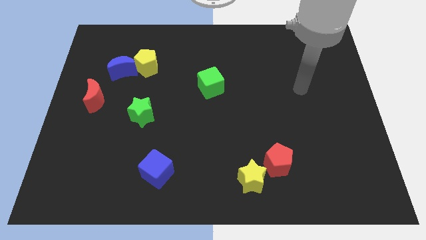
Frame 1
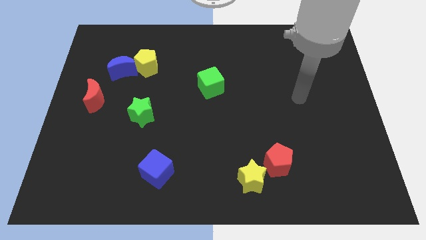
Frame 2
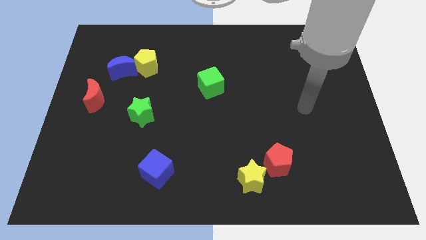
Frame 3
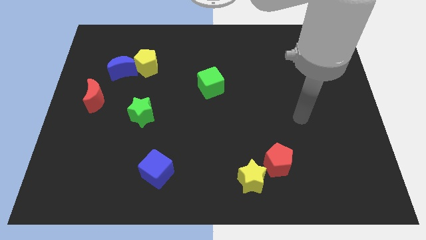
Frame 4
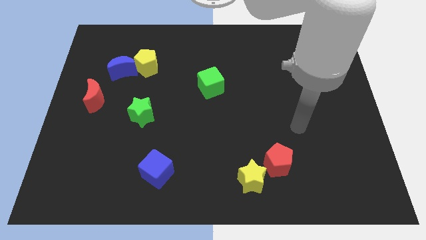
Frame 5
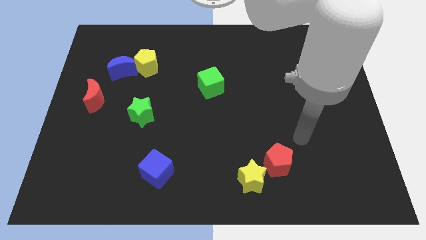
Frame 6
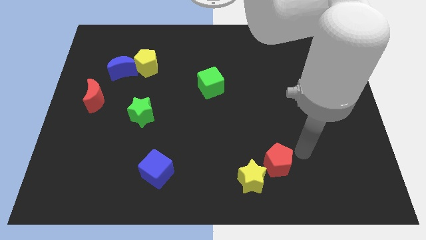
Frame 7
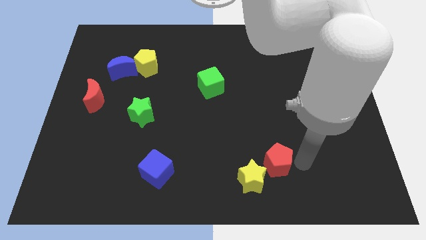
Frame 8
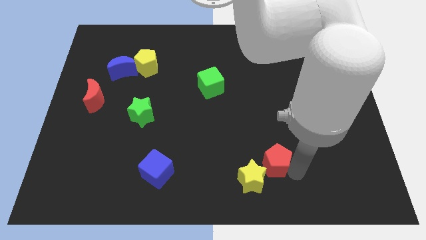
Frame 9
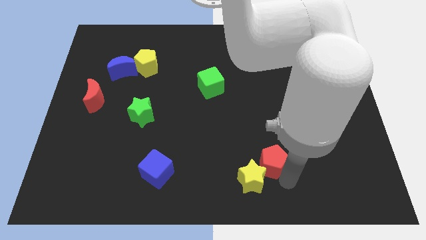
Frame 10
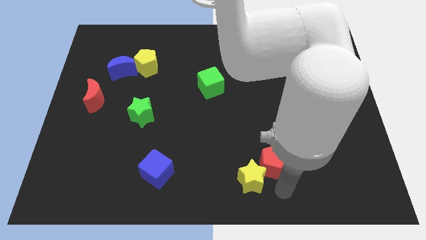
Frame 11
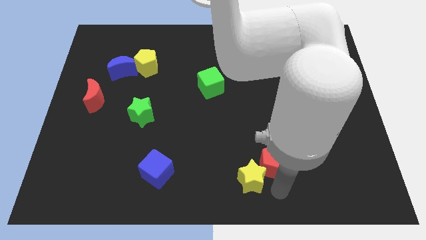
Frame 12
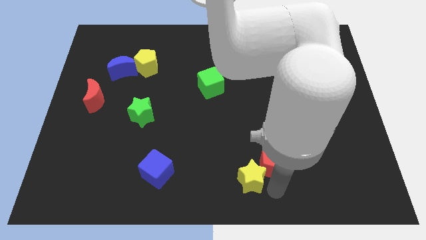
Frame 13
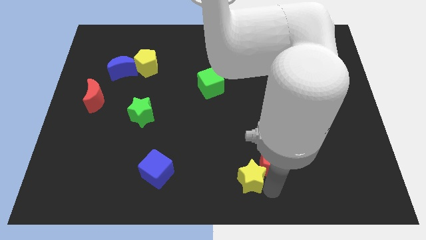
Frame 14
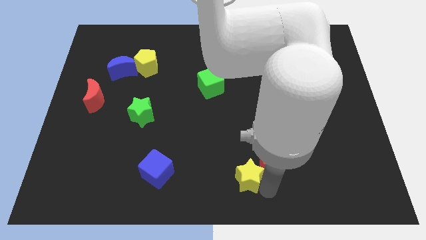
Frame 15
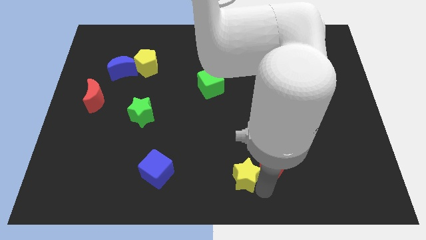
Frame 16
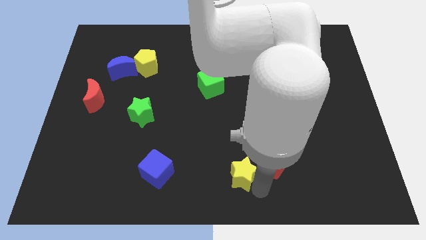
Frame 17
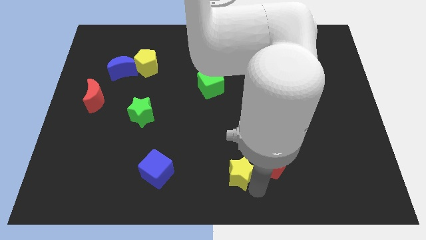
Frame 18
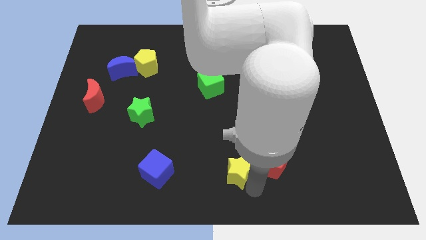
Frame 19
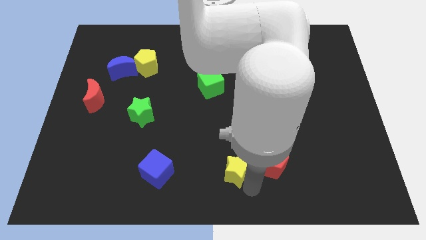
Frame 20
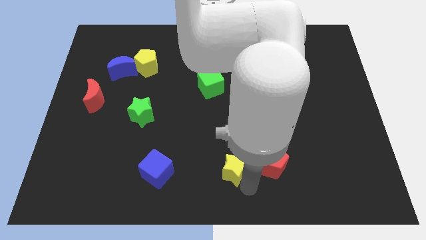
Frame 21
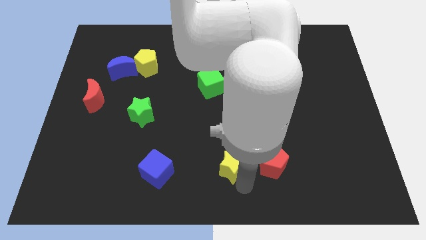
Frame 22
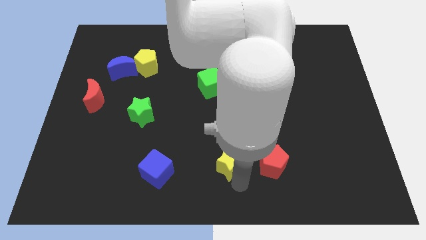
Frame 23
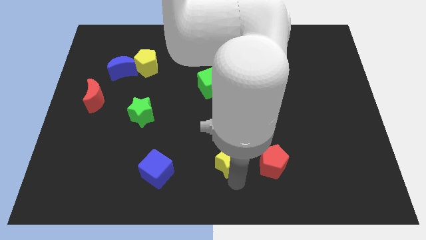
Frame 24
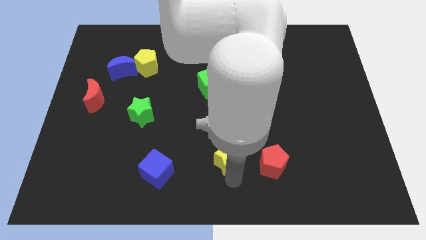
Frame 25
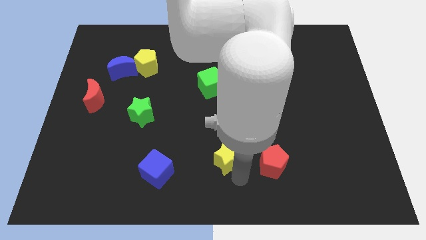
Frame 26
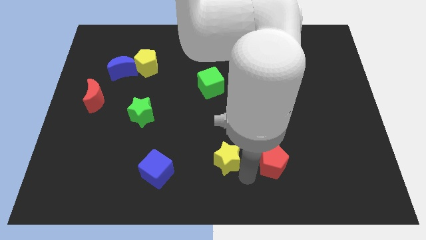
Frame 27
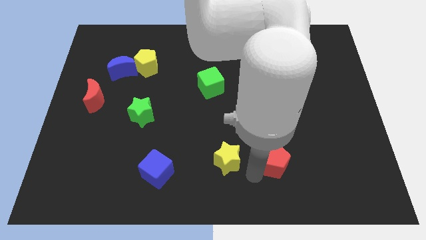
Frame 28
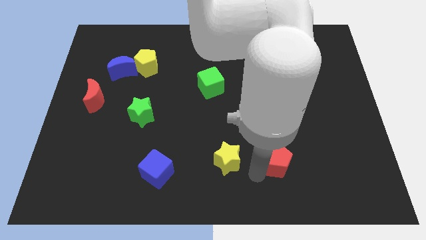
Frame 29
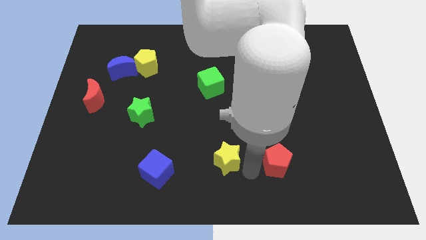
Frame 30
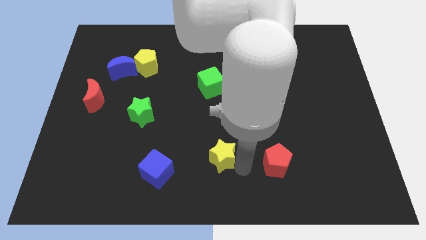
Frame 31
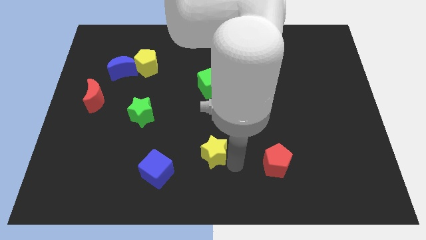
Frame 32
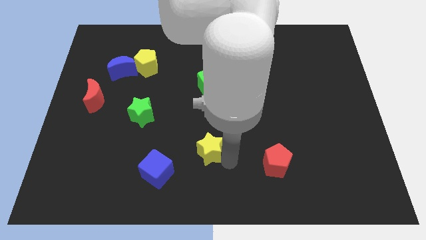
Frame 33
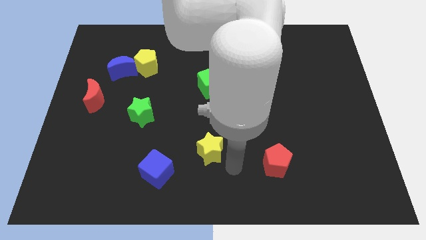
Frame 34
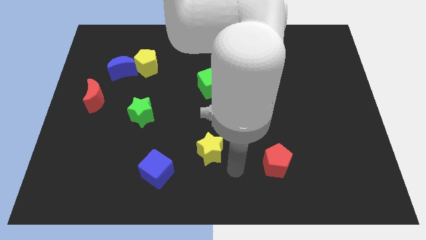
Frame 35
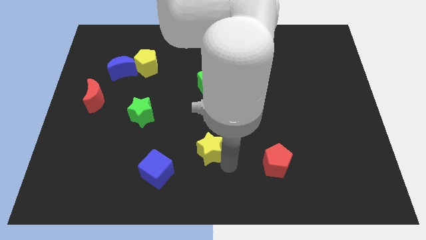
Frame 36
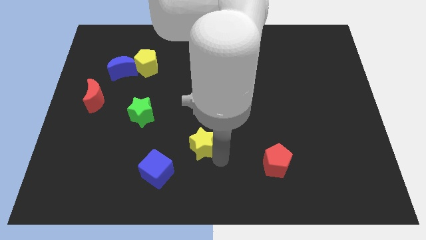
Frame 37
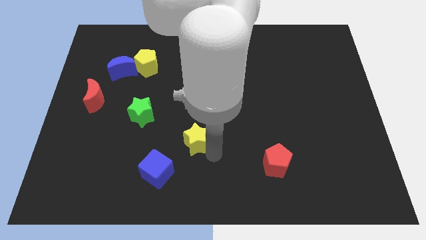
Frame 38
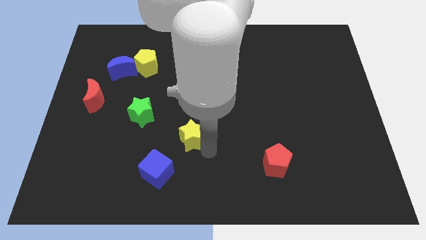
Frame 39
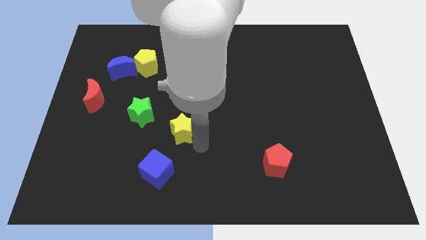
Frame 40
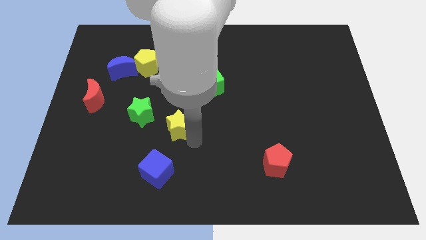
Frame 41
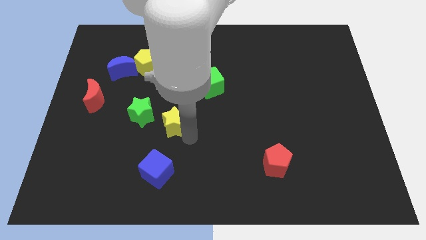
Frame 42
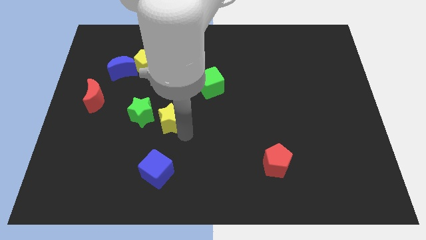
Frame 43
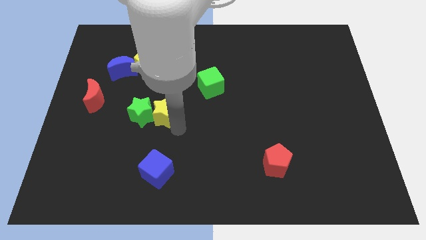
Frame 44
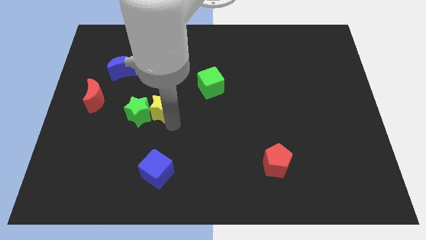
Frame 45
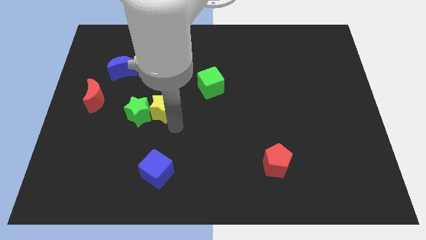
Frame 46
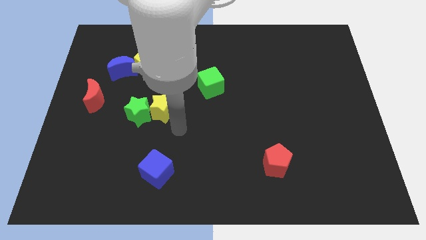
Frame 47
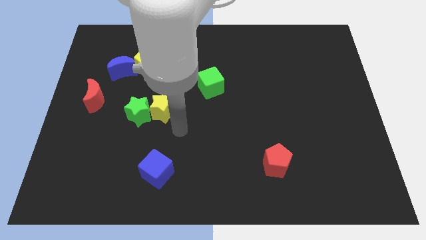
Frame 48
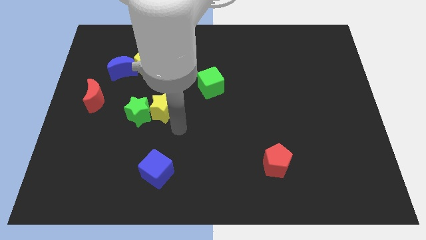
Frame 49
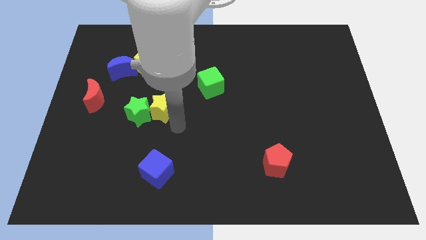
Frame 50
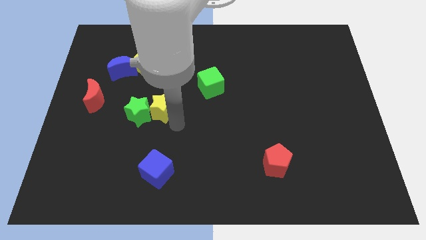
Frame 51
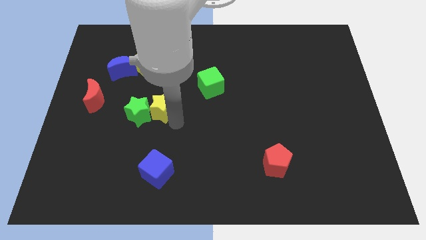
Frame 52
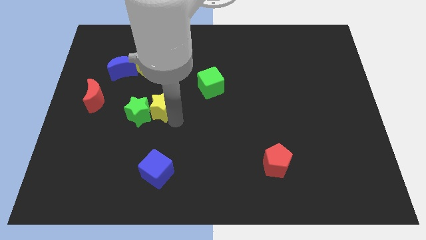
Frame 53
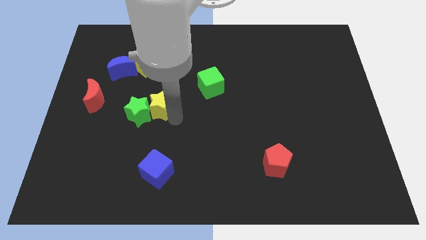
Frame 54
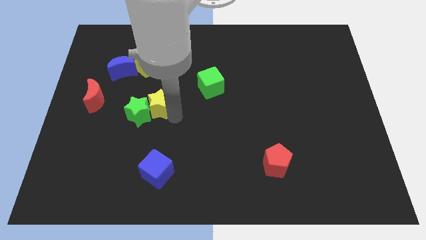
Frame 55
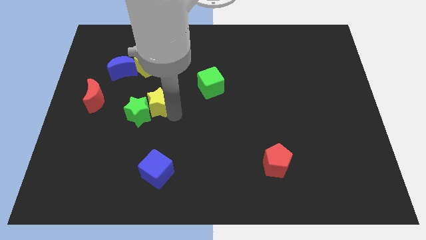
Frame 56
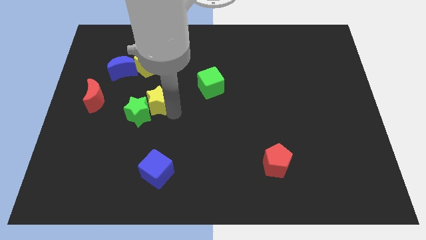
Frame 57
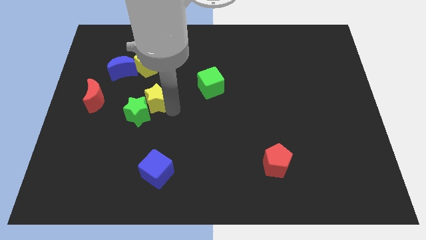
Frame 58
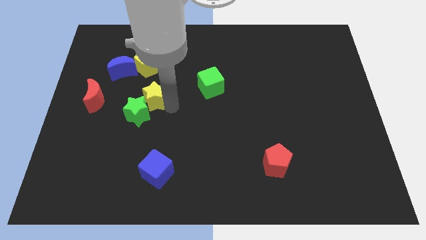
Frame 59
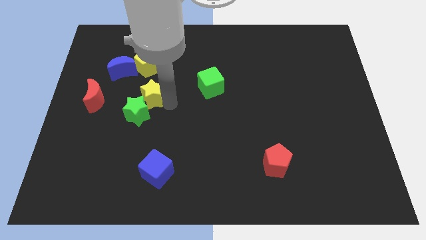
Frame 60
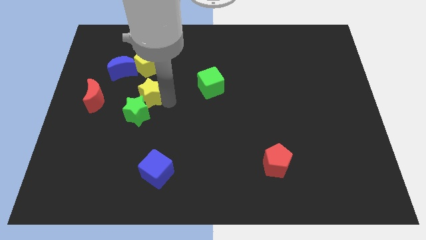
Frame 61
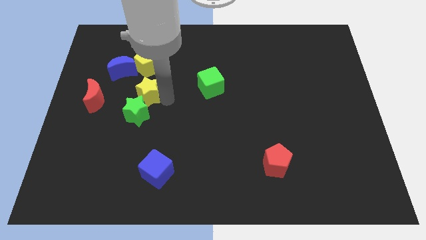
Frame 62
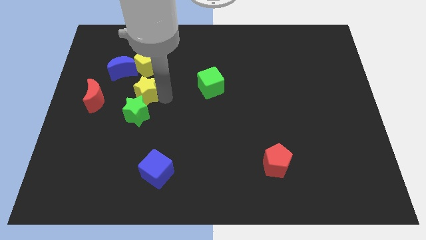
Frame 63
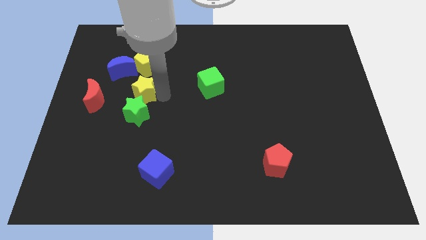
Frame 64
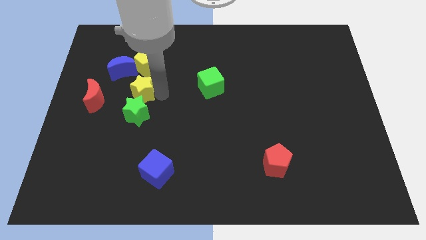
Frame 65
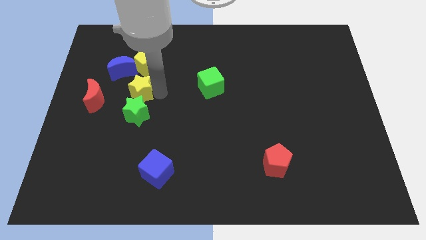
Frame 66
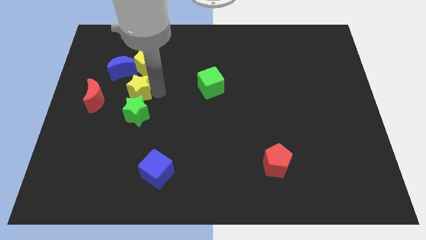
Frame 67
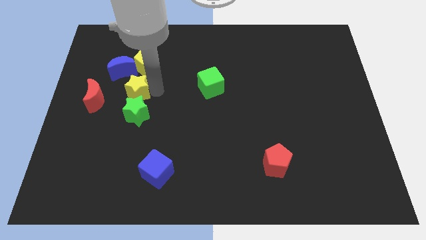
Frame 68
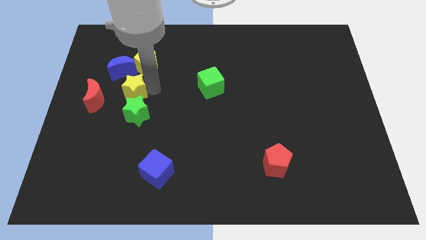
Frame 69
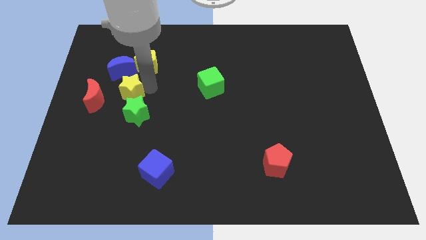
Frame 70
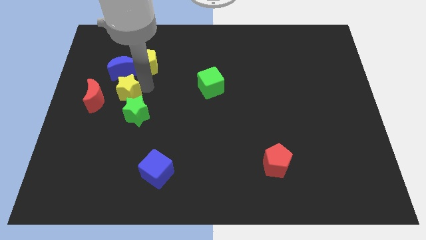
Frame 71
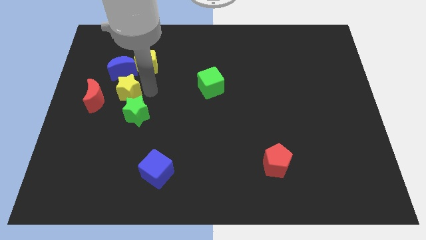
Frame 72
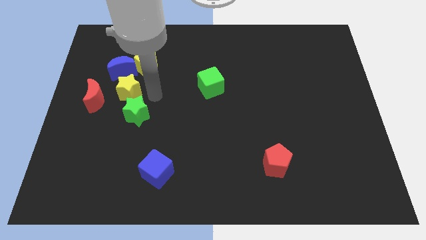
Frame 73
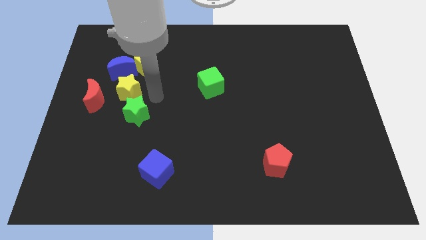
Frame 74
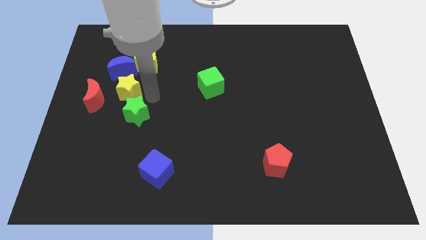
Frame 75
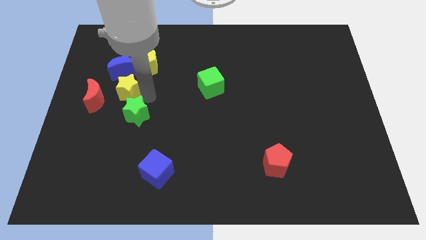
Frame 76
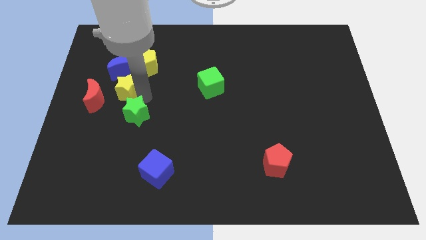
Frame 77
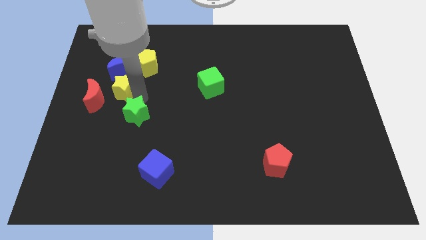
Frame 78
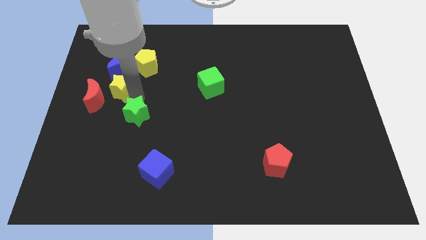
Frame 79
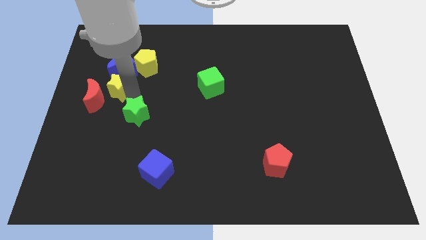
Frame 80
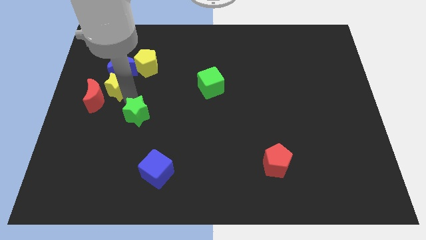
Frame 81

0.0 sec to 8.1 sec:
move the yellow star to the bottom left side of the blue moon

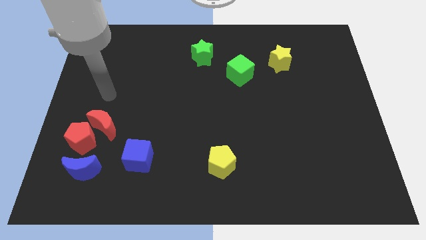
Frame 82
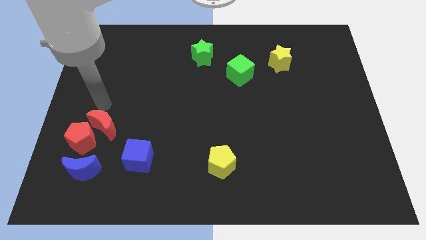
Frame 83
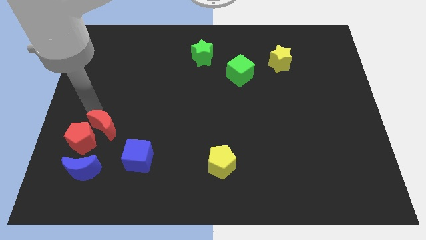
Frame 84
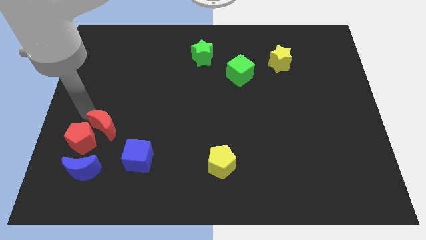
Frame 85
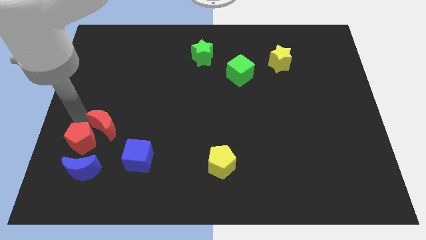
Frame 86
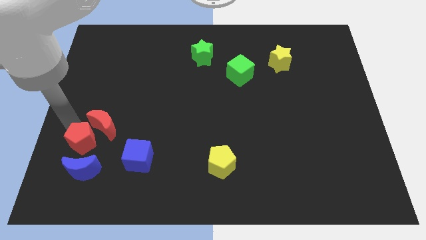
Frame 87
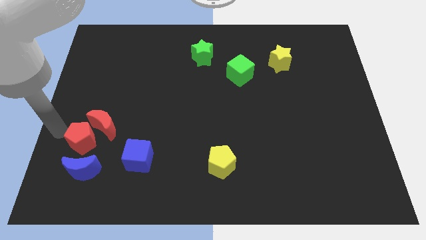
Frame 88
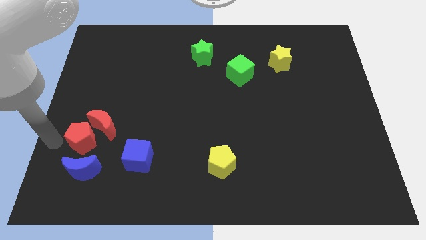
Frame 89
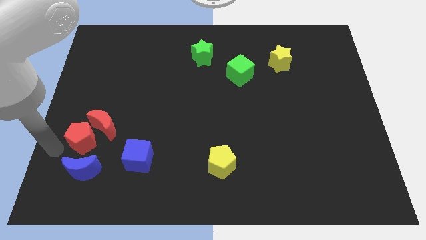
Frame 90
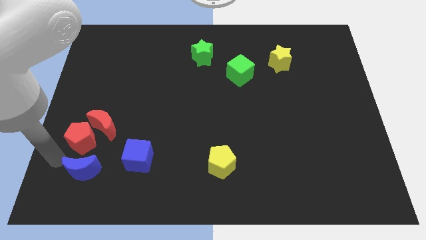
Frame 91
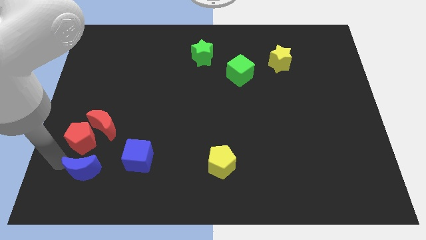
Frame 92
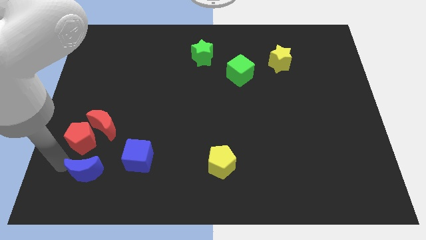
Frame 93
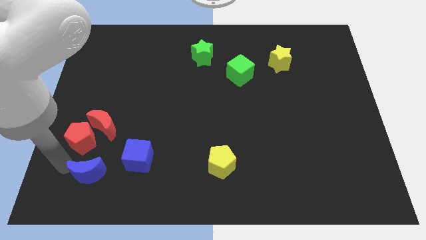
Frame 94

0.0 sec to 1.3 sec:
push the blue moon to the bottom left side of the blue cube
